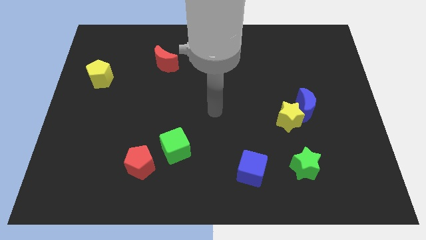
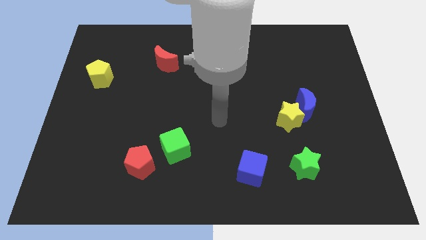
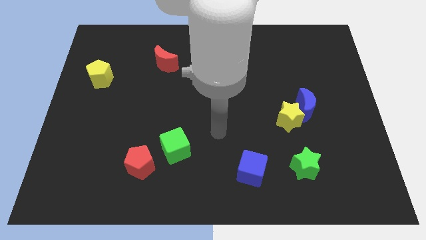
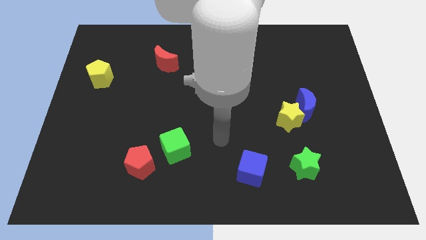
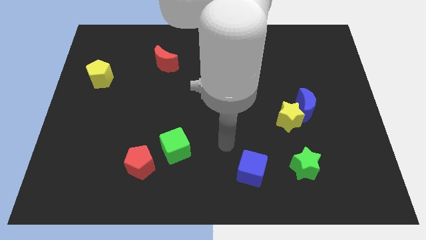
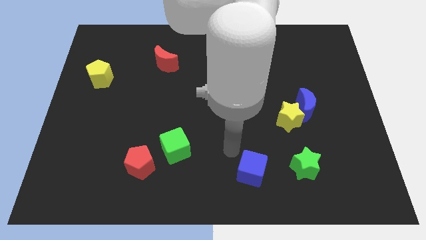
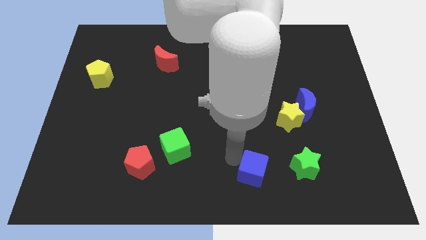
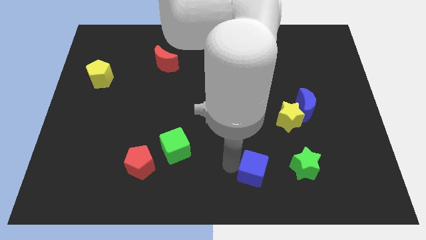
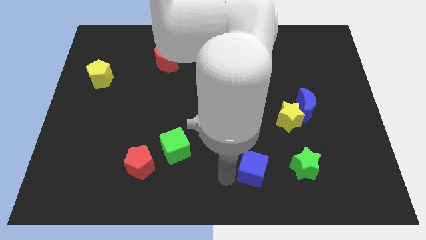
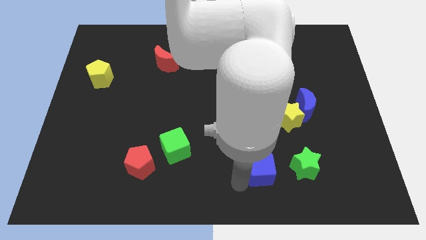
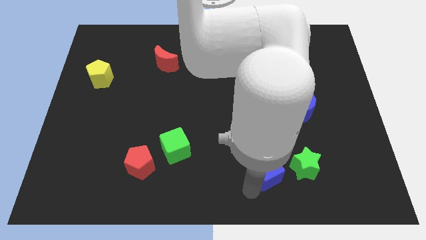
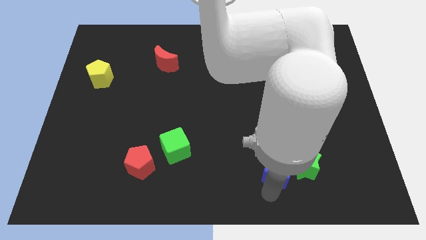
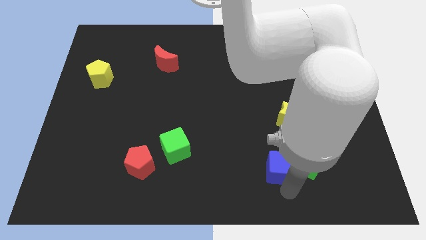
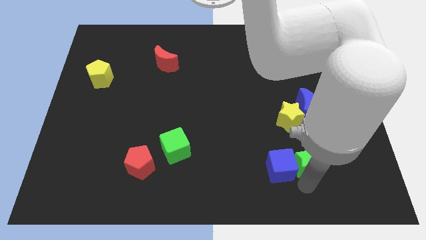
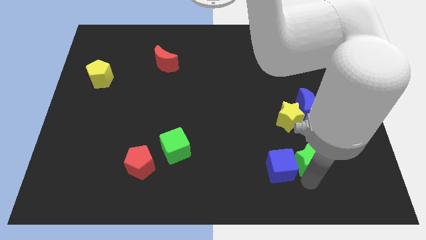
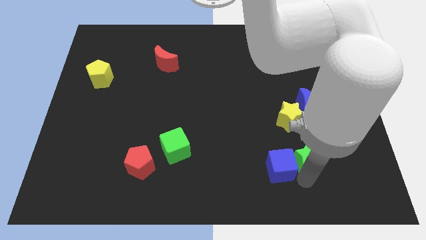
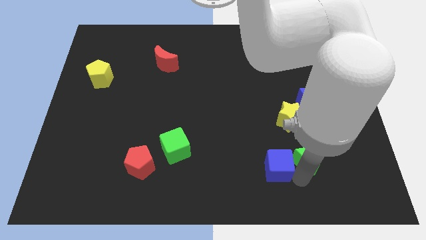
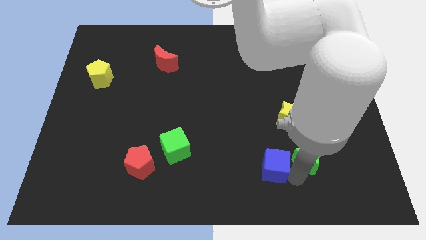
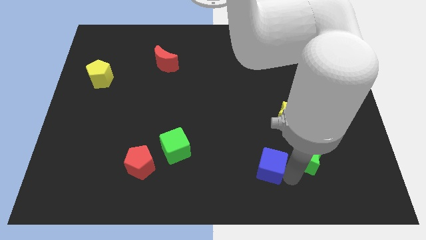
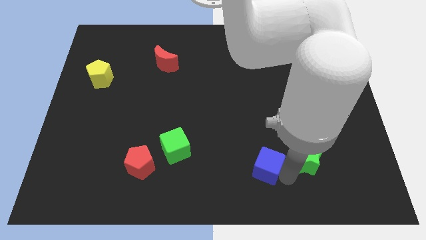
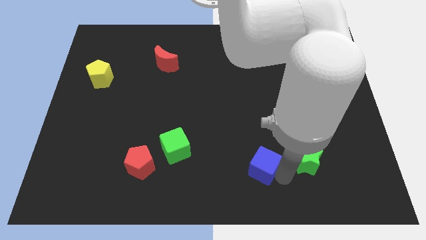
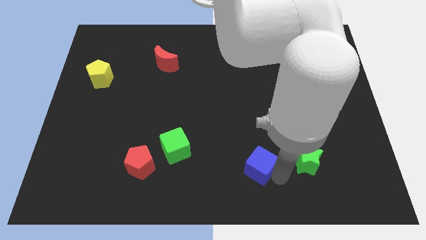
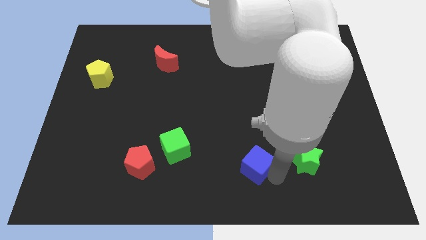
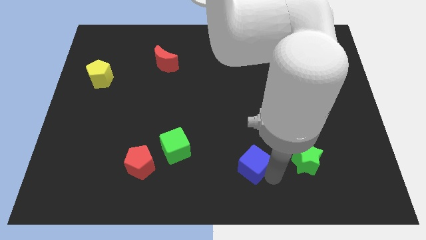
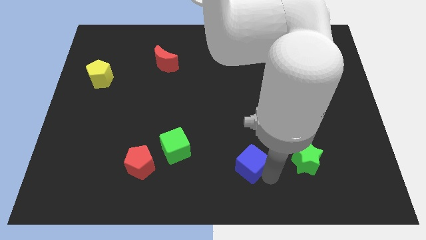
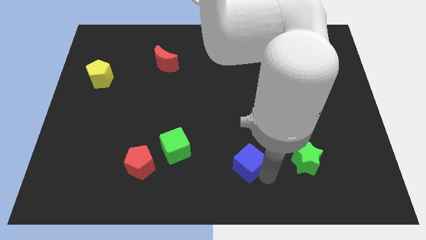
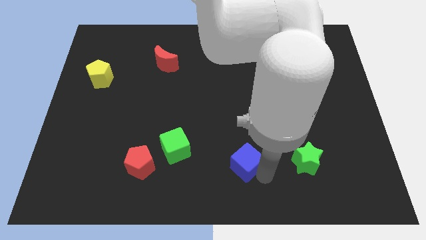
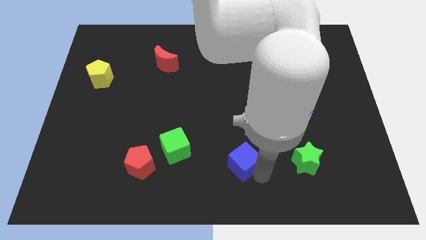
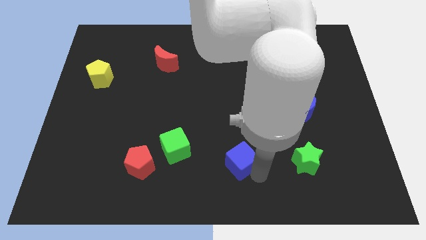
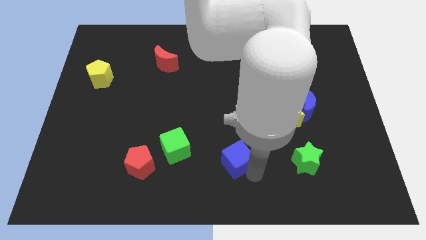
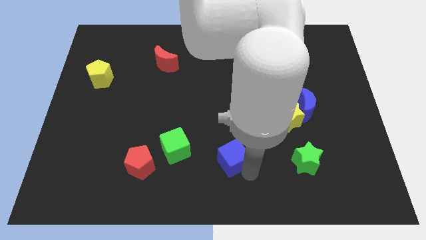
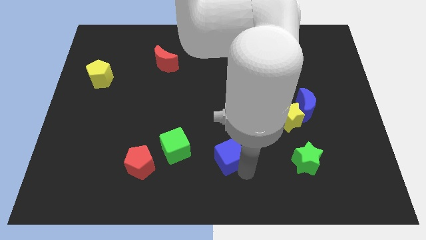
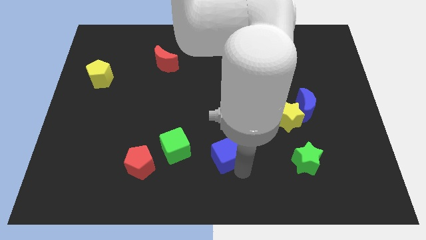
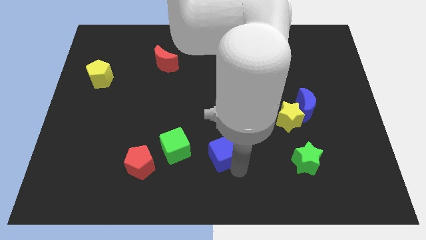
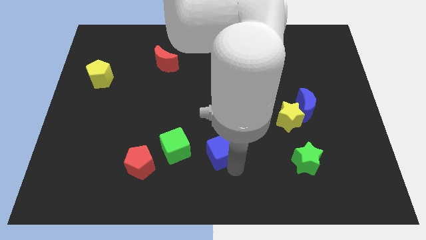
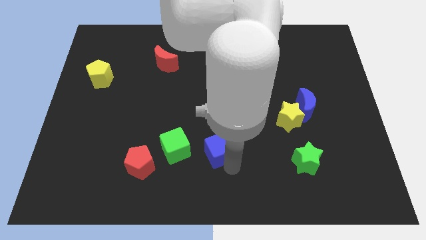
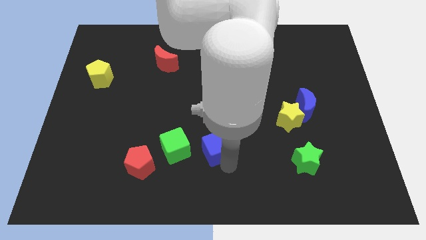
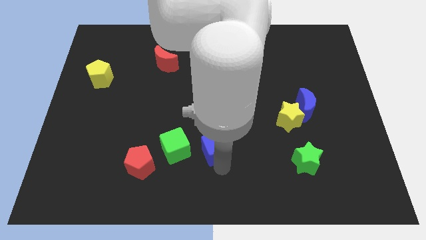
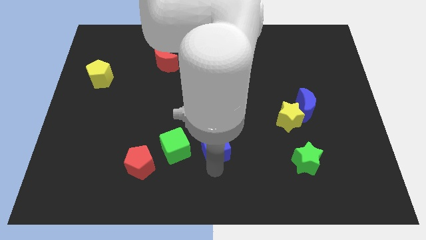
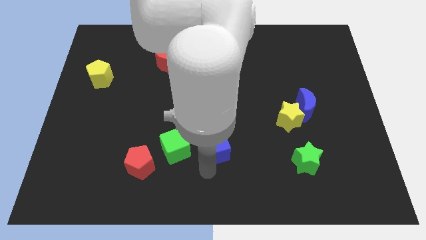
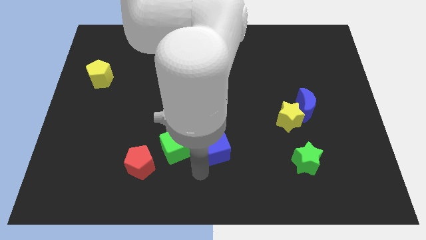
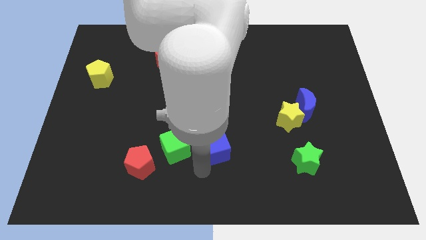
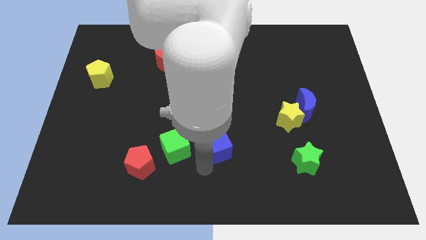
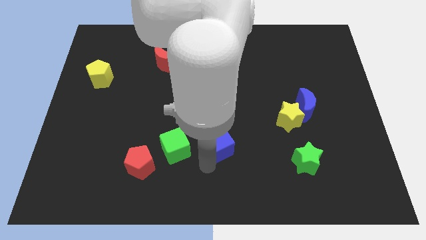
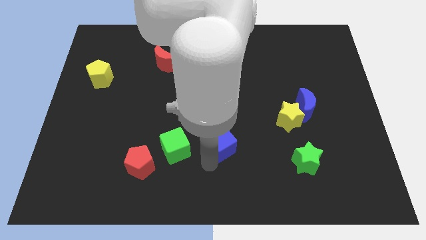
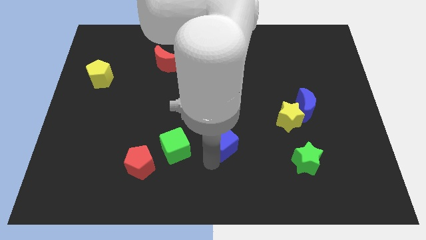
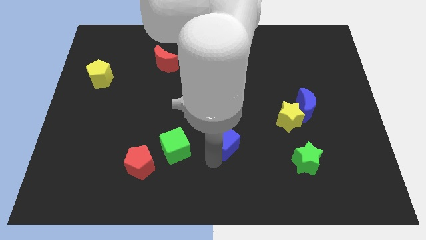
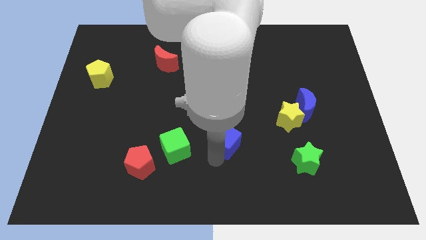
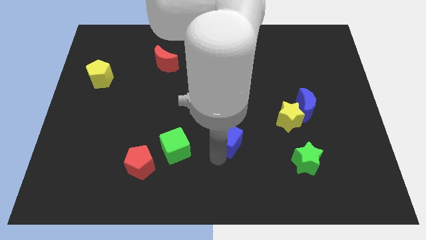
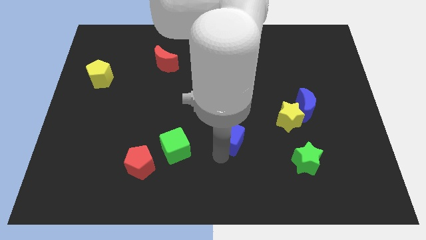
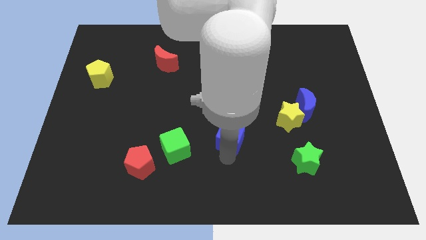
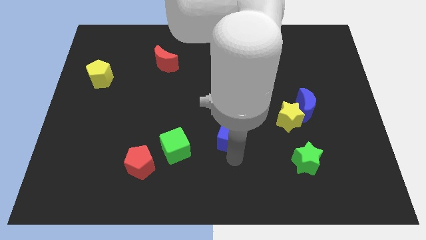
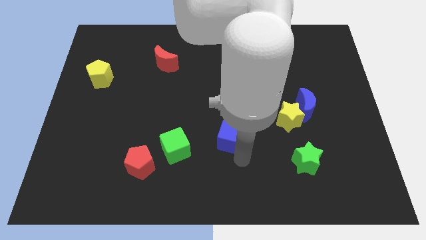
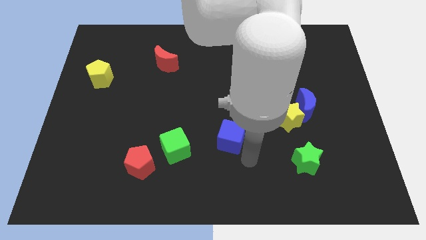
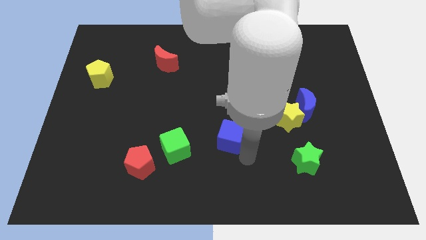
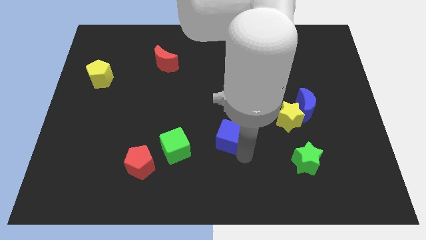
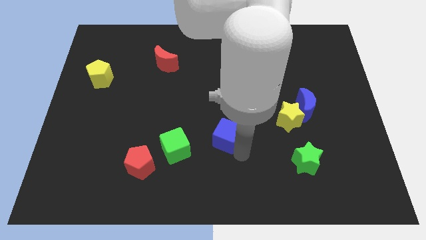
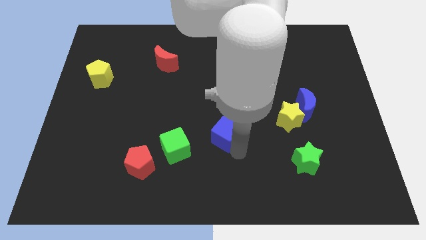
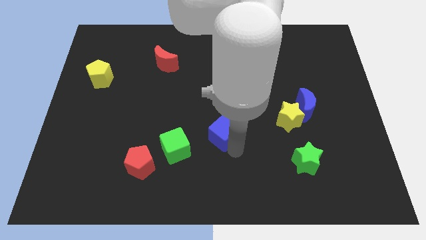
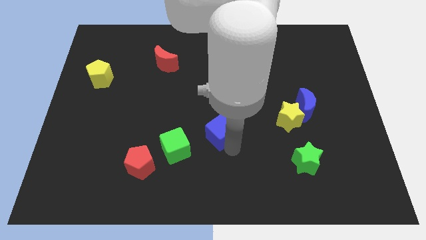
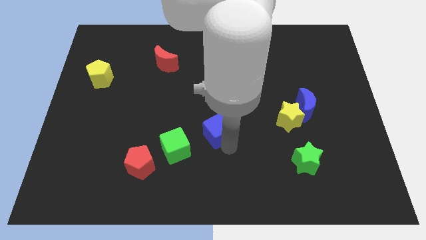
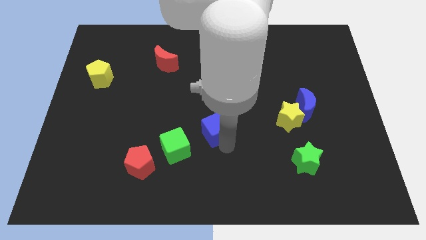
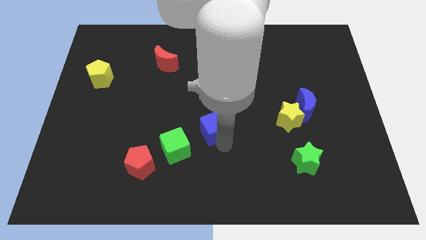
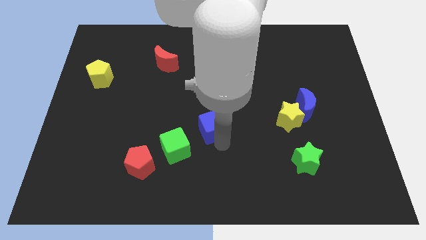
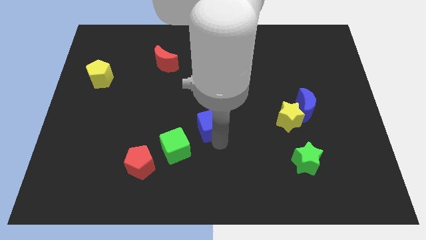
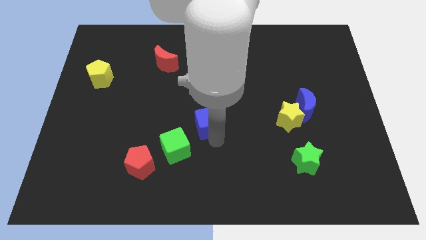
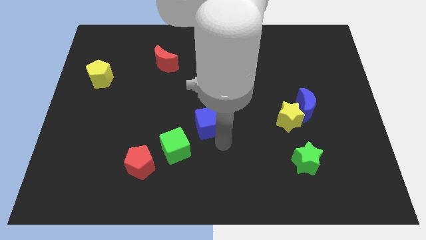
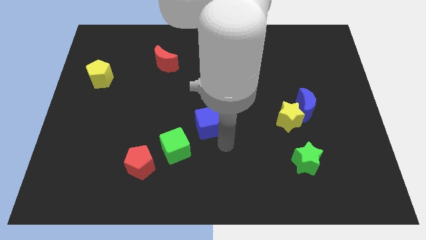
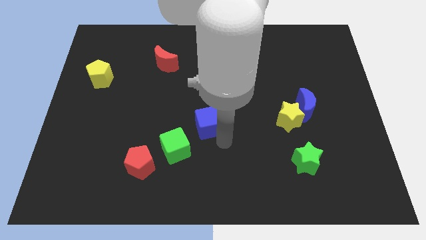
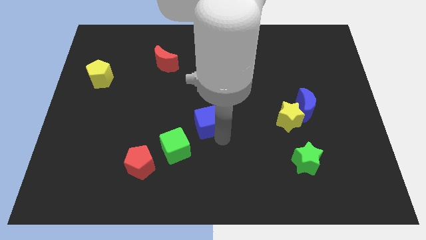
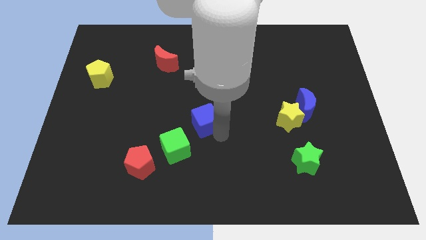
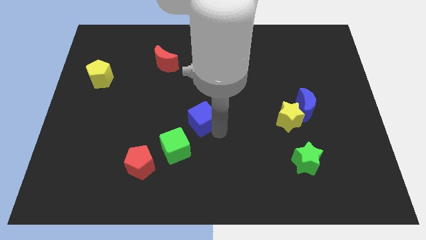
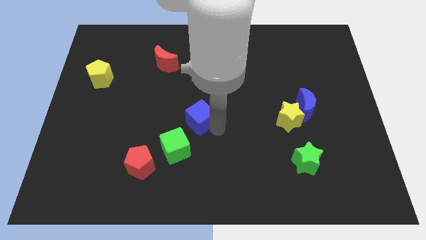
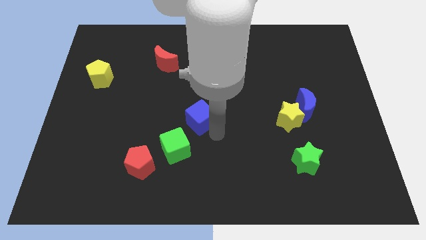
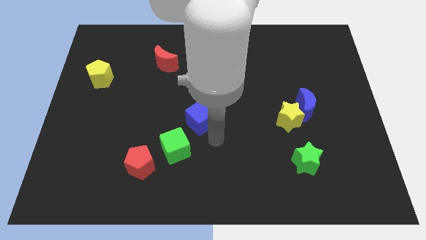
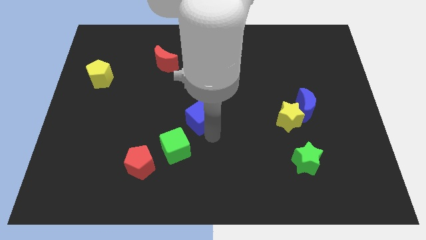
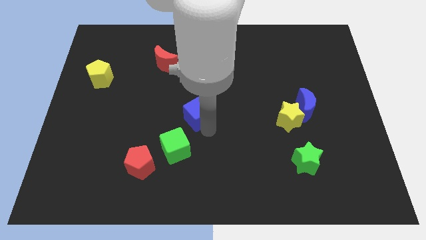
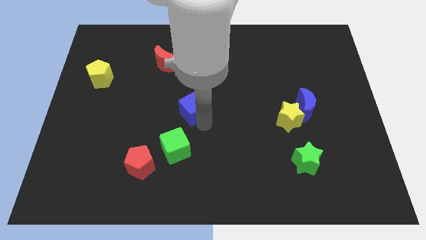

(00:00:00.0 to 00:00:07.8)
slide the blue cube upwards and then left

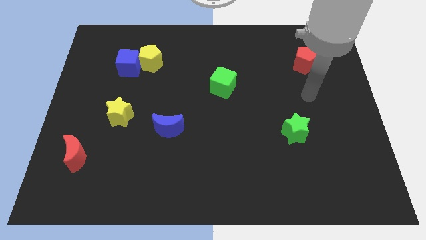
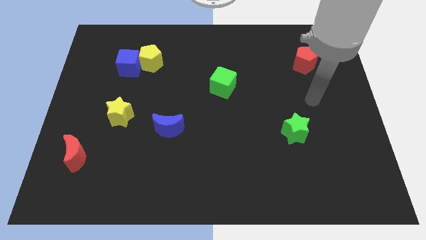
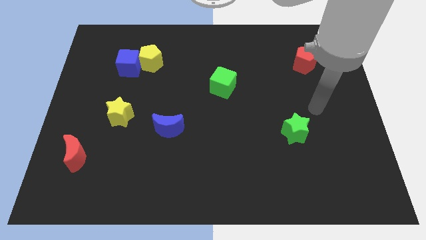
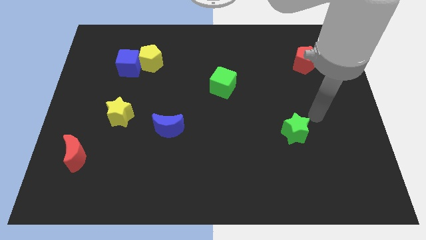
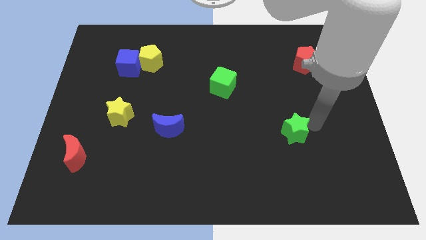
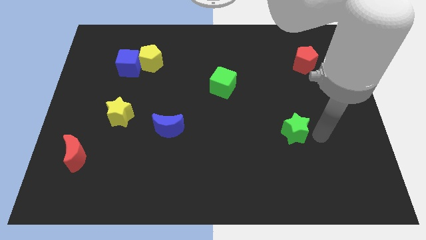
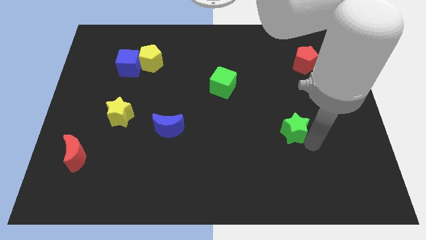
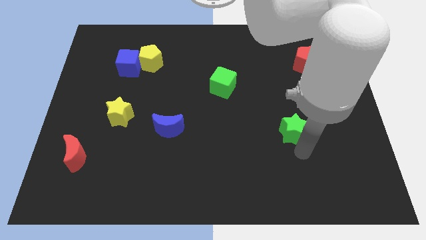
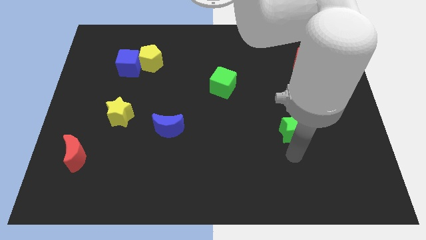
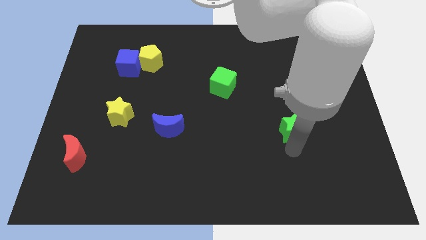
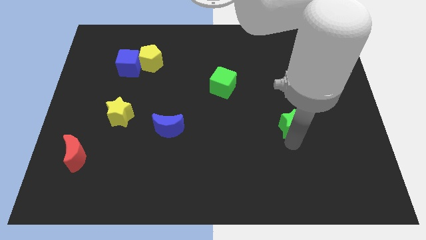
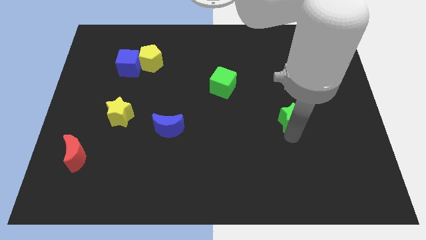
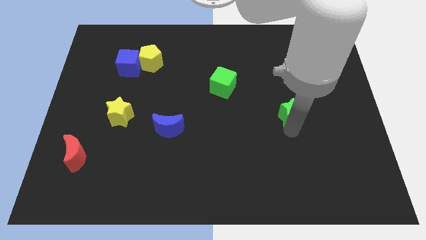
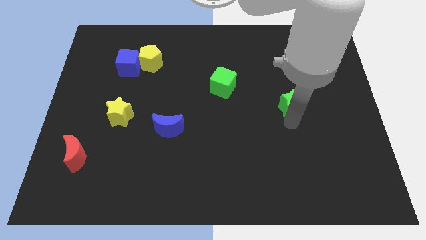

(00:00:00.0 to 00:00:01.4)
push the green star up a little bit
